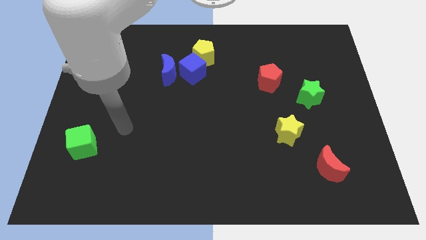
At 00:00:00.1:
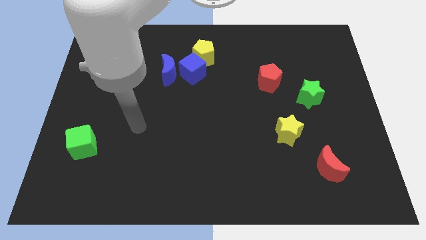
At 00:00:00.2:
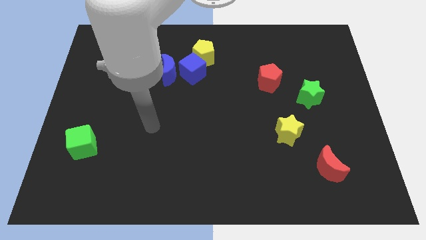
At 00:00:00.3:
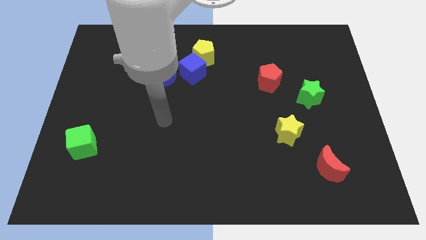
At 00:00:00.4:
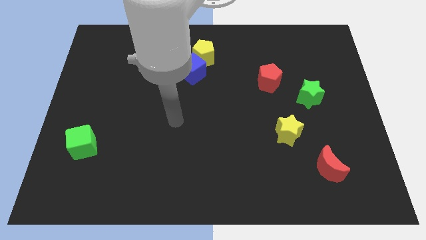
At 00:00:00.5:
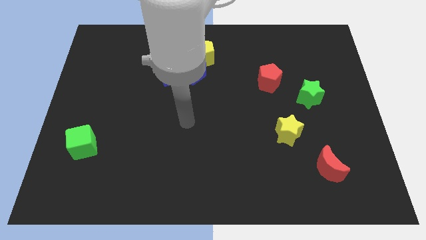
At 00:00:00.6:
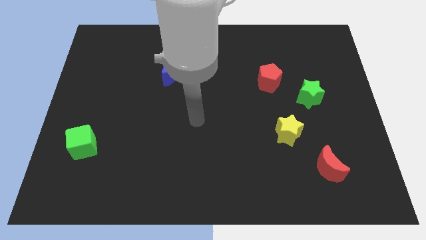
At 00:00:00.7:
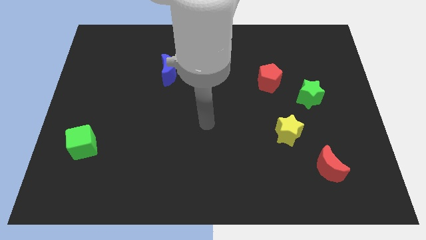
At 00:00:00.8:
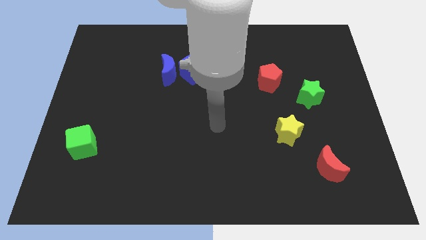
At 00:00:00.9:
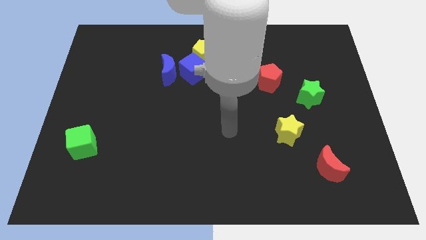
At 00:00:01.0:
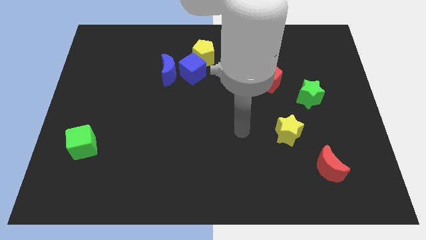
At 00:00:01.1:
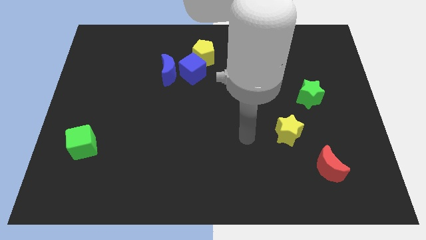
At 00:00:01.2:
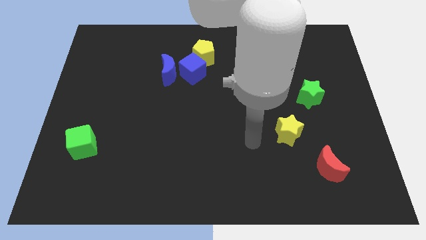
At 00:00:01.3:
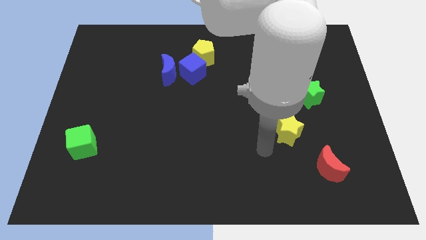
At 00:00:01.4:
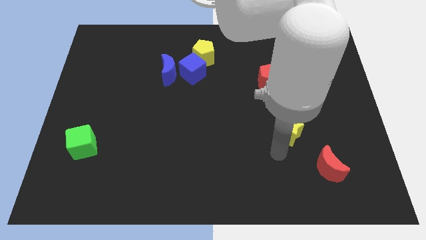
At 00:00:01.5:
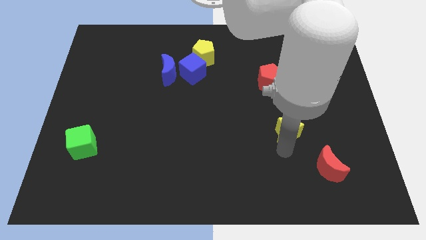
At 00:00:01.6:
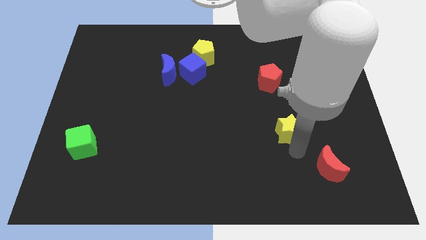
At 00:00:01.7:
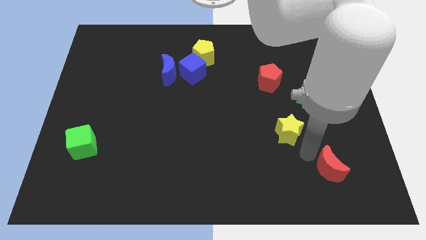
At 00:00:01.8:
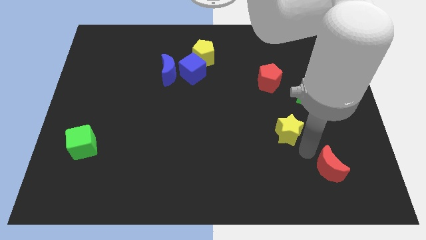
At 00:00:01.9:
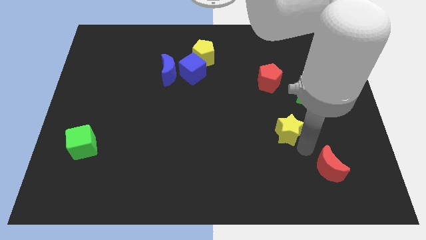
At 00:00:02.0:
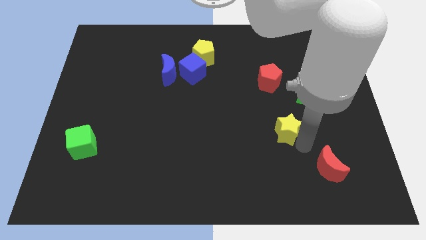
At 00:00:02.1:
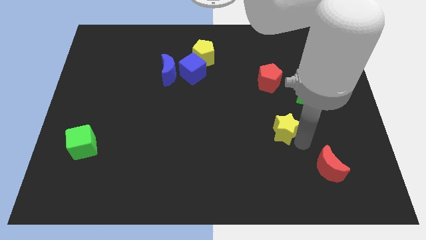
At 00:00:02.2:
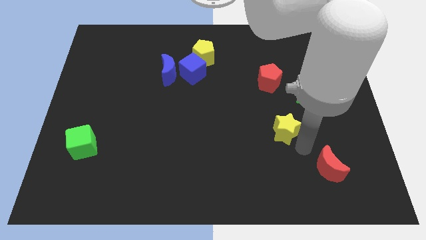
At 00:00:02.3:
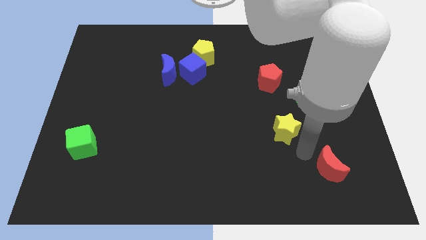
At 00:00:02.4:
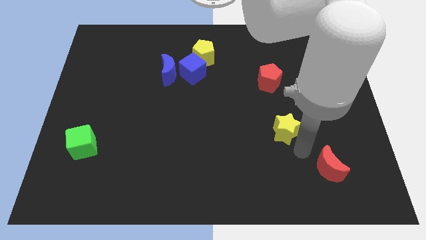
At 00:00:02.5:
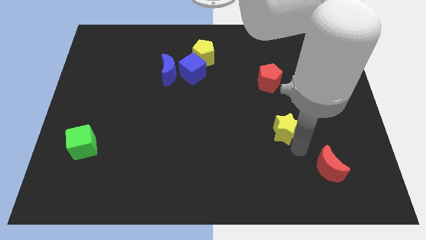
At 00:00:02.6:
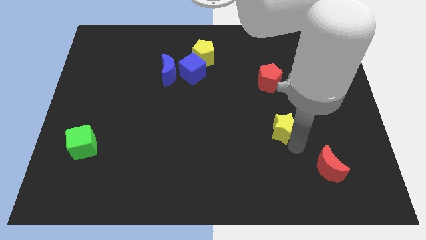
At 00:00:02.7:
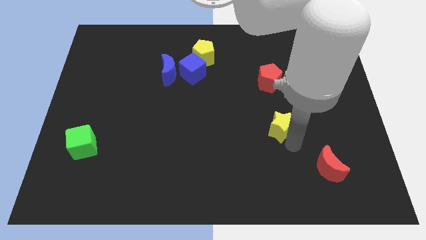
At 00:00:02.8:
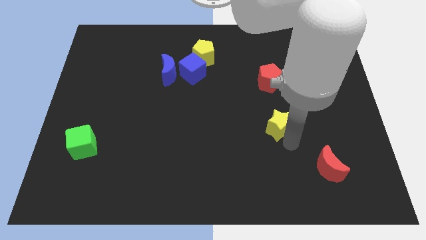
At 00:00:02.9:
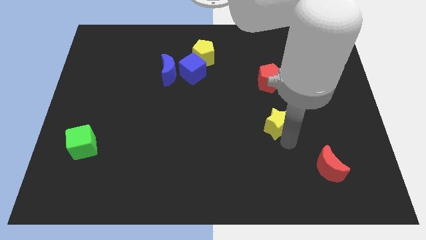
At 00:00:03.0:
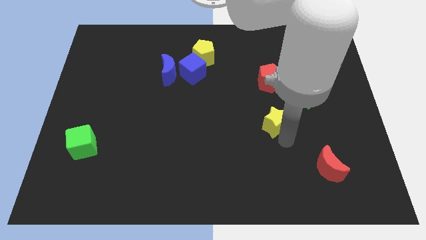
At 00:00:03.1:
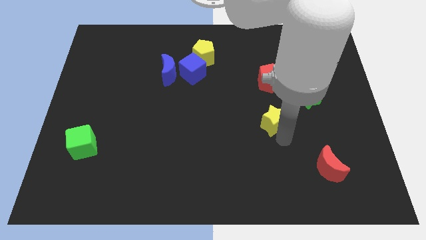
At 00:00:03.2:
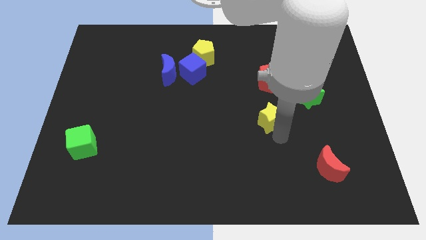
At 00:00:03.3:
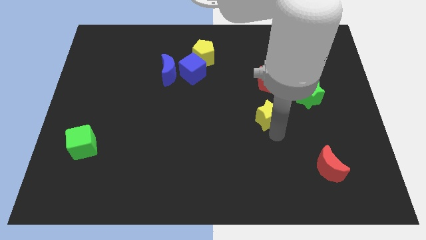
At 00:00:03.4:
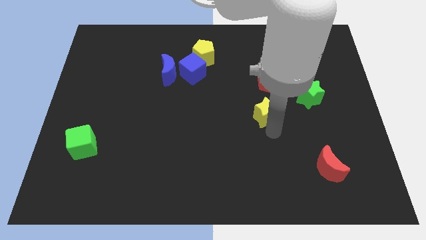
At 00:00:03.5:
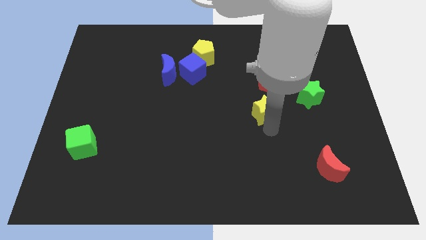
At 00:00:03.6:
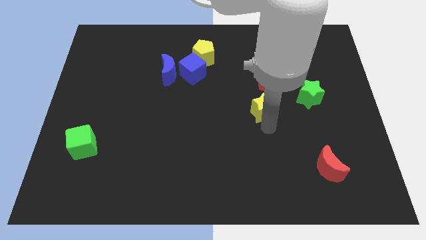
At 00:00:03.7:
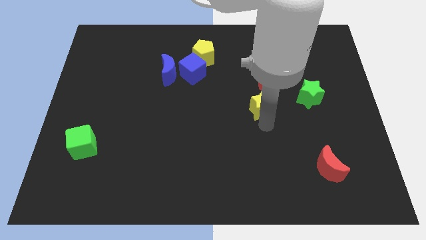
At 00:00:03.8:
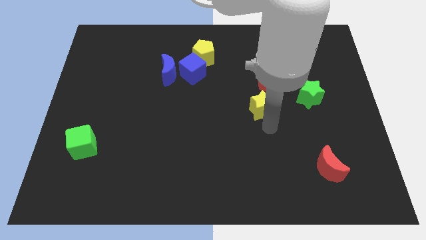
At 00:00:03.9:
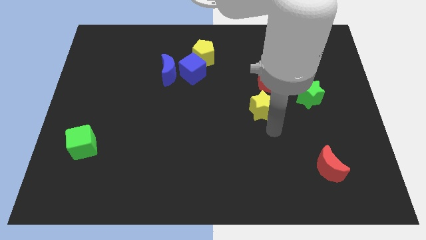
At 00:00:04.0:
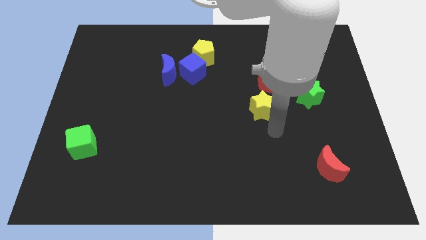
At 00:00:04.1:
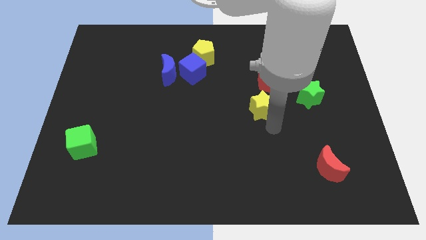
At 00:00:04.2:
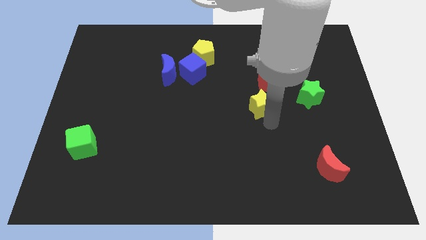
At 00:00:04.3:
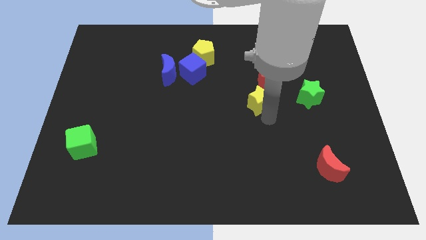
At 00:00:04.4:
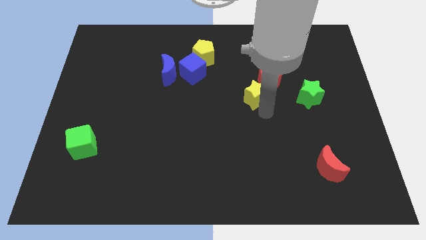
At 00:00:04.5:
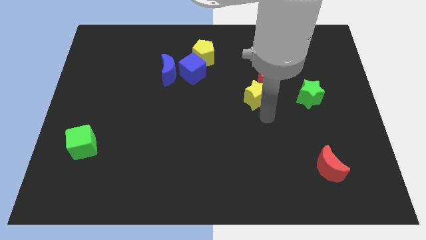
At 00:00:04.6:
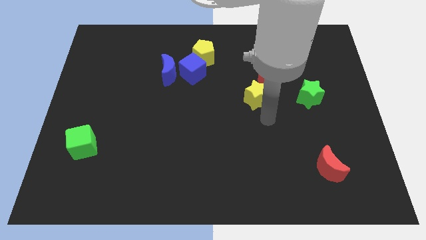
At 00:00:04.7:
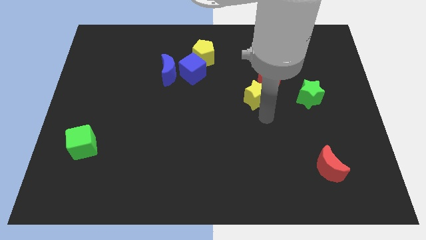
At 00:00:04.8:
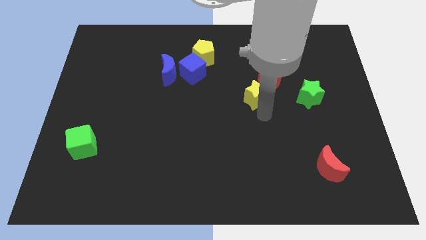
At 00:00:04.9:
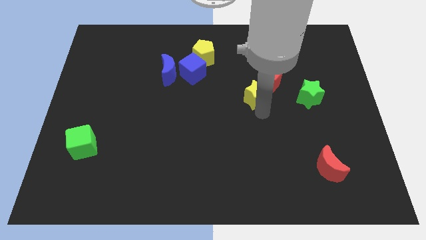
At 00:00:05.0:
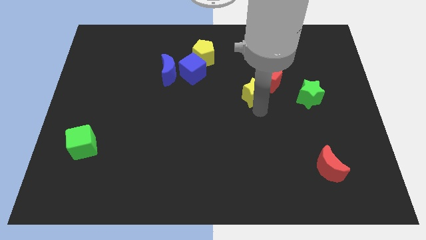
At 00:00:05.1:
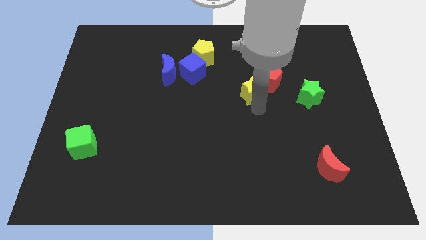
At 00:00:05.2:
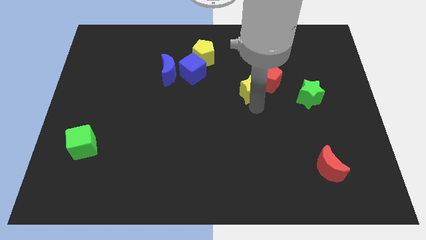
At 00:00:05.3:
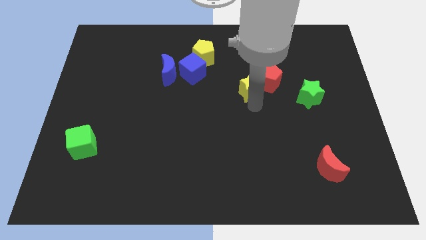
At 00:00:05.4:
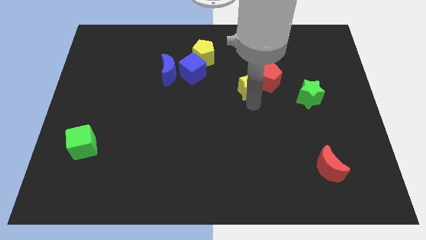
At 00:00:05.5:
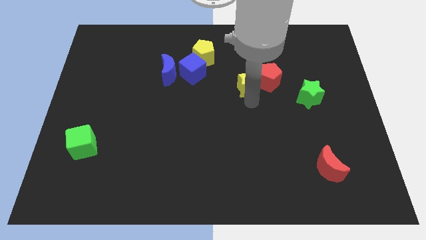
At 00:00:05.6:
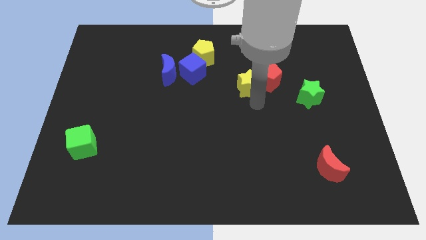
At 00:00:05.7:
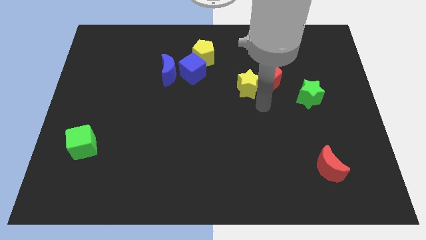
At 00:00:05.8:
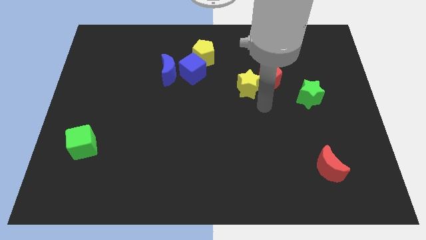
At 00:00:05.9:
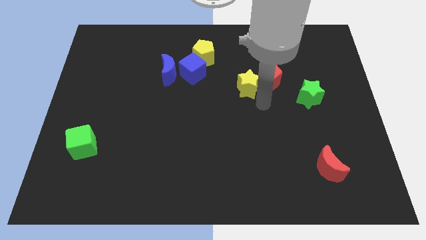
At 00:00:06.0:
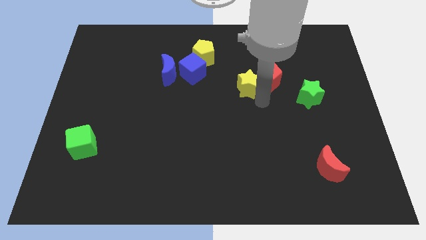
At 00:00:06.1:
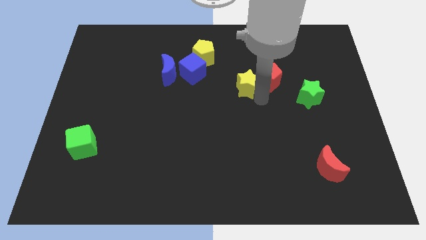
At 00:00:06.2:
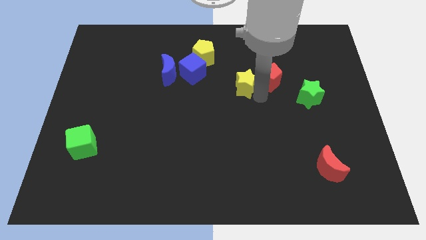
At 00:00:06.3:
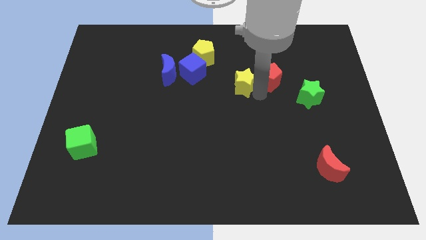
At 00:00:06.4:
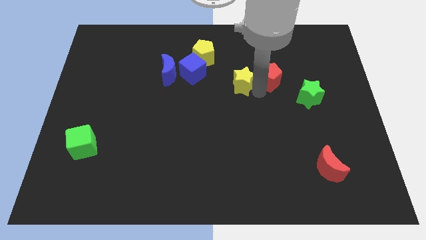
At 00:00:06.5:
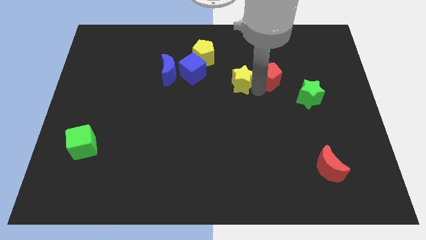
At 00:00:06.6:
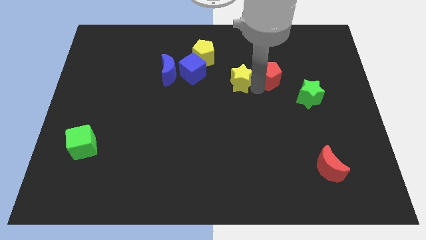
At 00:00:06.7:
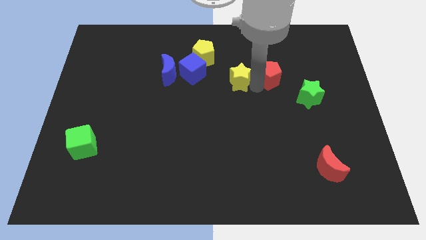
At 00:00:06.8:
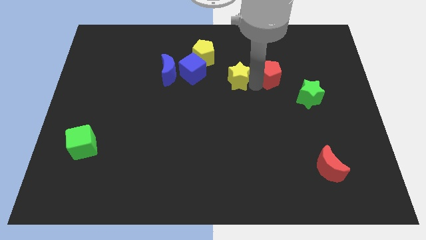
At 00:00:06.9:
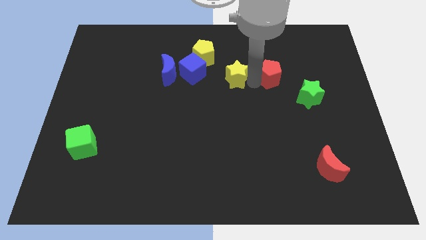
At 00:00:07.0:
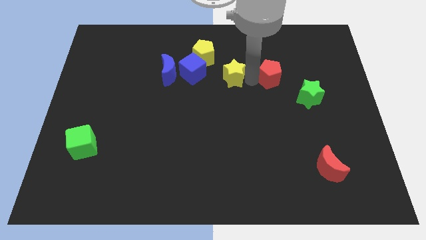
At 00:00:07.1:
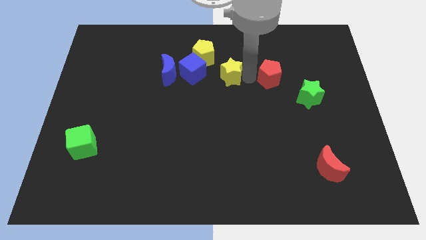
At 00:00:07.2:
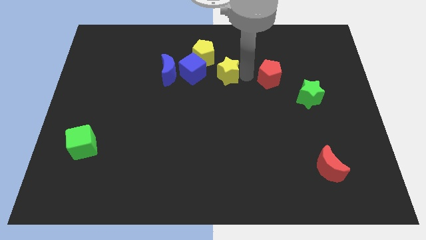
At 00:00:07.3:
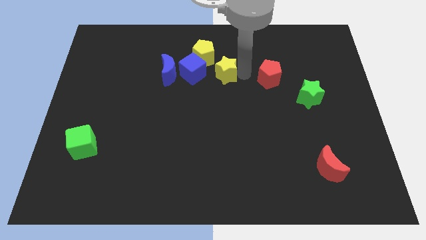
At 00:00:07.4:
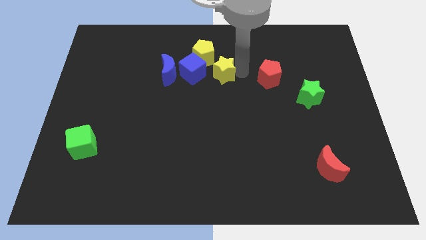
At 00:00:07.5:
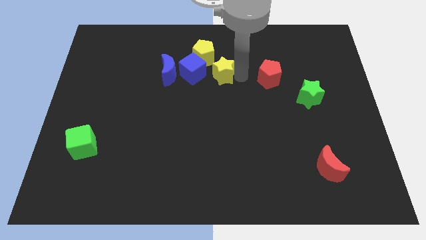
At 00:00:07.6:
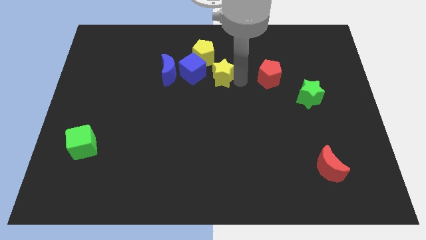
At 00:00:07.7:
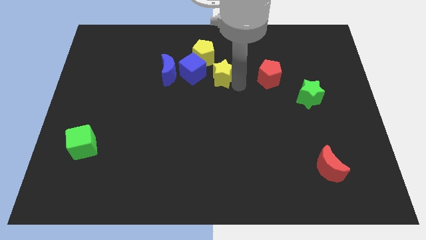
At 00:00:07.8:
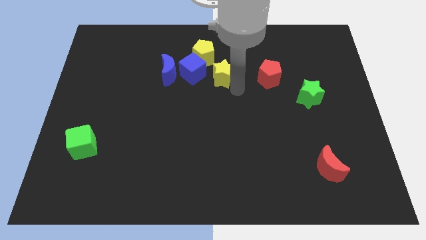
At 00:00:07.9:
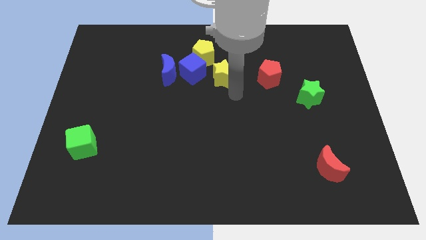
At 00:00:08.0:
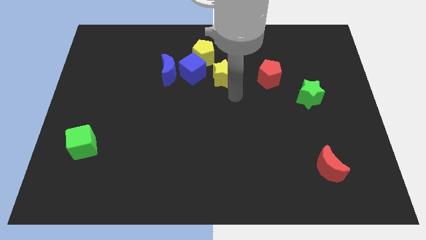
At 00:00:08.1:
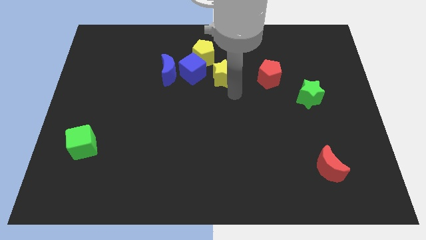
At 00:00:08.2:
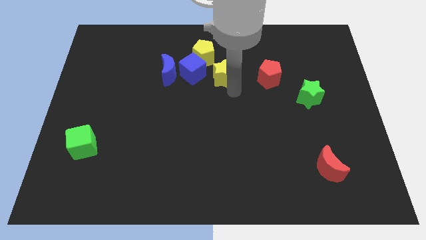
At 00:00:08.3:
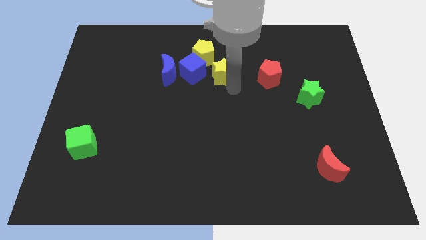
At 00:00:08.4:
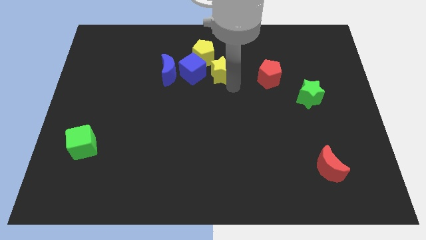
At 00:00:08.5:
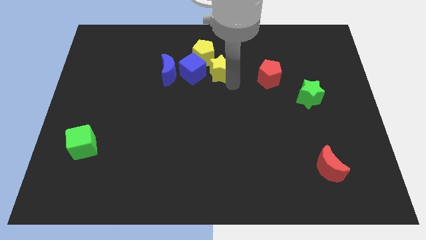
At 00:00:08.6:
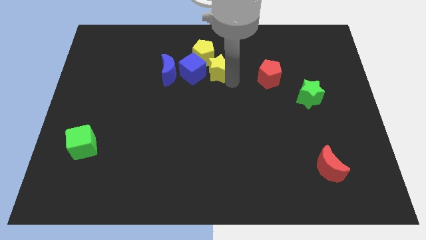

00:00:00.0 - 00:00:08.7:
push the yellow star to the top right of the blue cube
